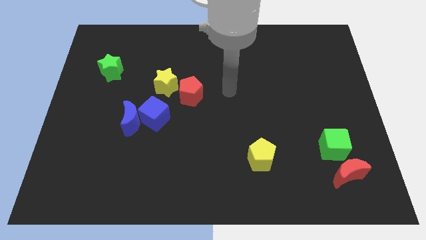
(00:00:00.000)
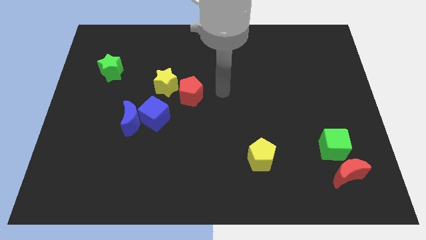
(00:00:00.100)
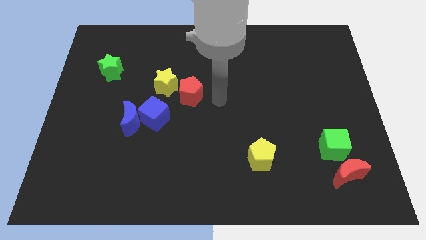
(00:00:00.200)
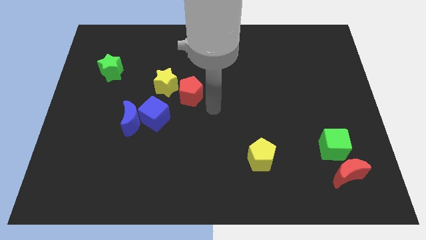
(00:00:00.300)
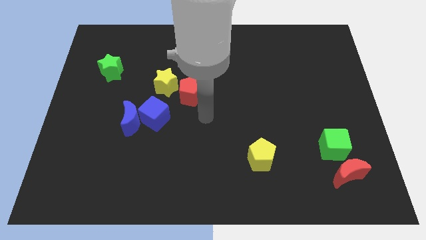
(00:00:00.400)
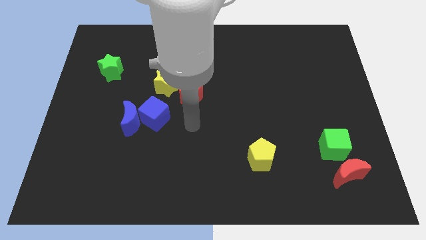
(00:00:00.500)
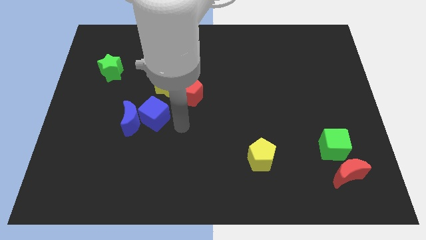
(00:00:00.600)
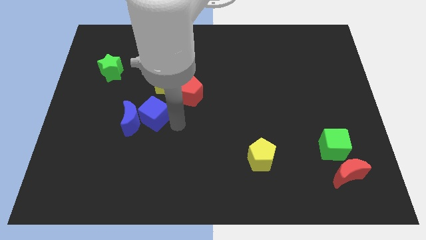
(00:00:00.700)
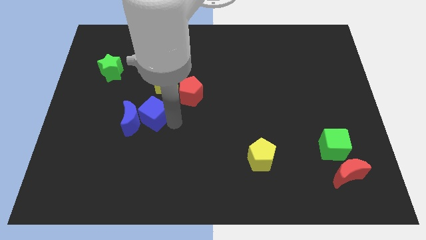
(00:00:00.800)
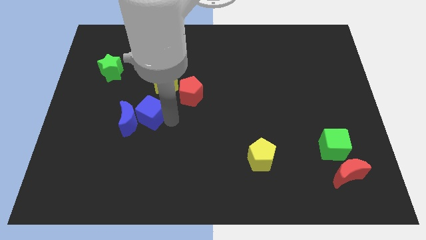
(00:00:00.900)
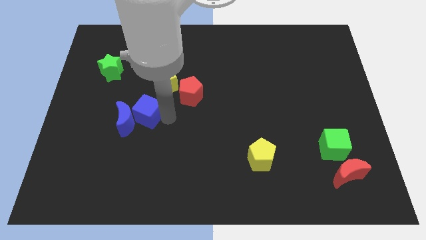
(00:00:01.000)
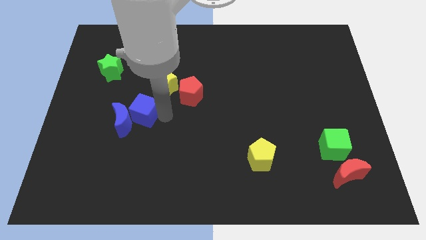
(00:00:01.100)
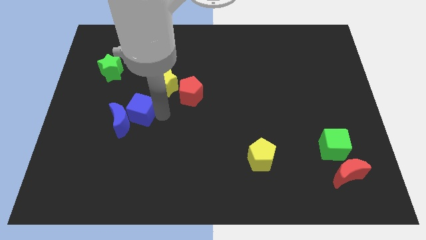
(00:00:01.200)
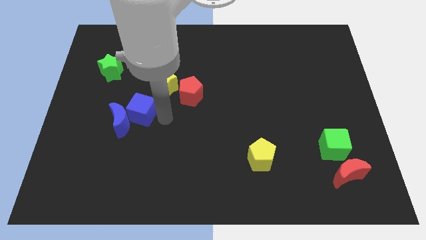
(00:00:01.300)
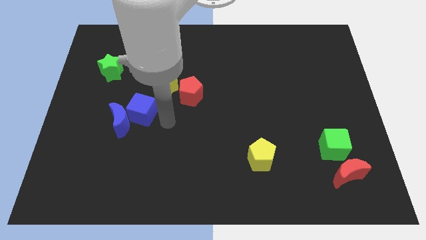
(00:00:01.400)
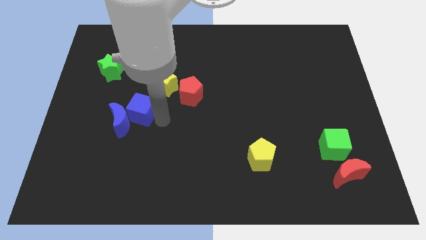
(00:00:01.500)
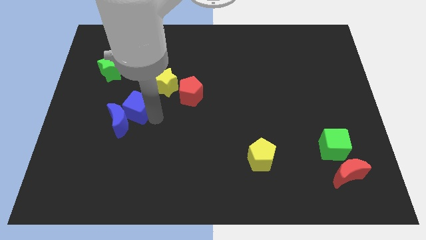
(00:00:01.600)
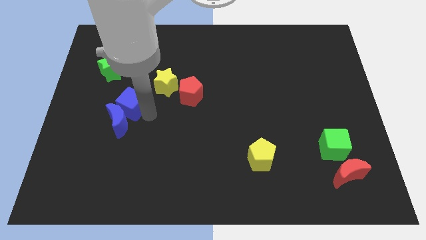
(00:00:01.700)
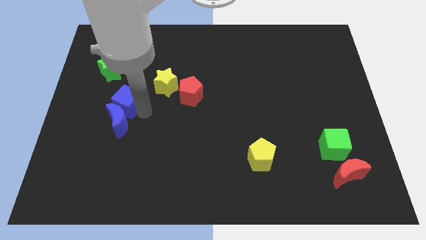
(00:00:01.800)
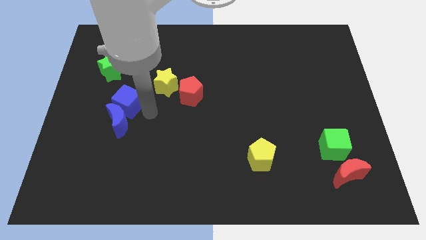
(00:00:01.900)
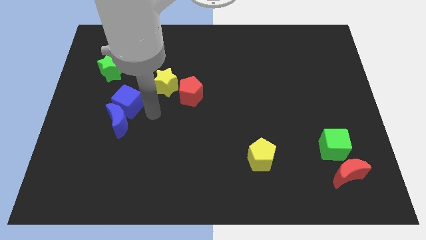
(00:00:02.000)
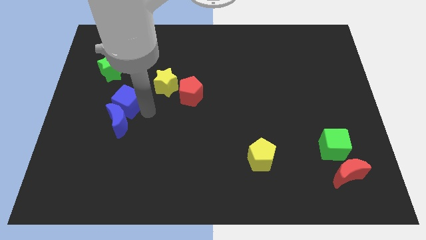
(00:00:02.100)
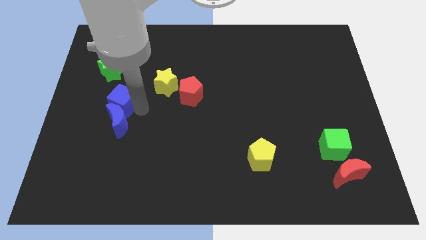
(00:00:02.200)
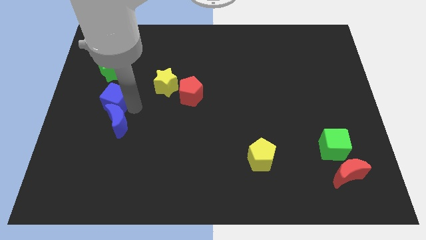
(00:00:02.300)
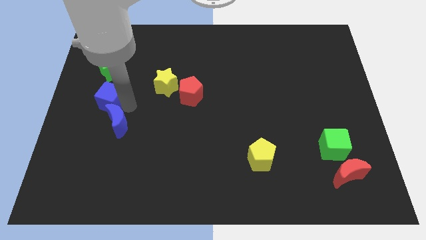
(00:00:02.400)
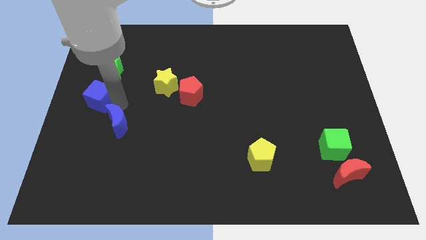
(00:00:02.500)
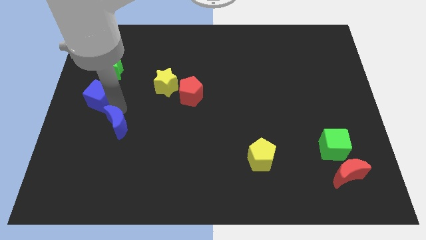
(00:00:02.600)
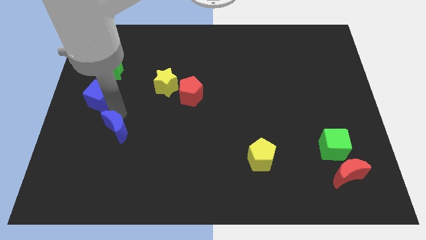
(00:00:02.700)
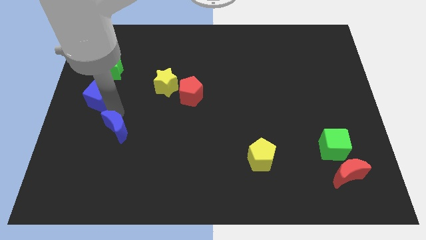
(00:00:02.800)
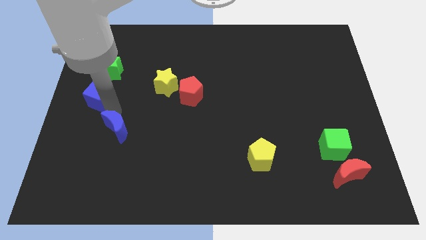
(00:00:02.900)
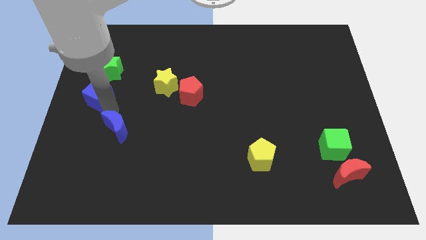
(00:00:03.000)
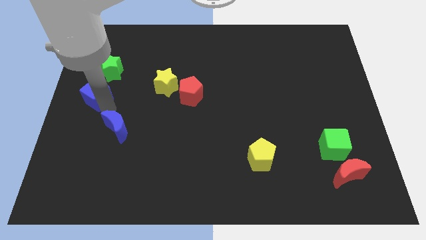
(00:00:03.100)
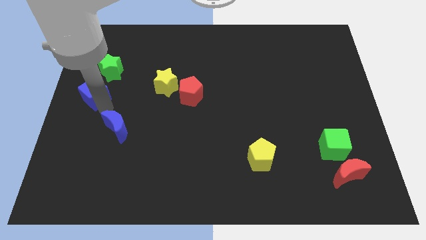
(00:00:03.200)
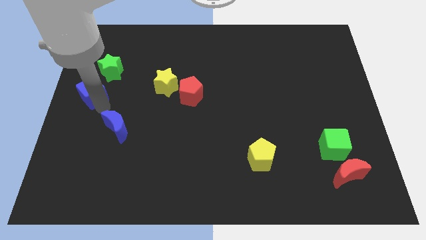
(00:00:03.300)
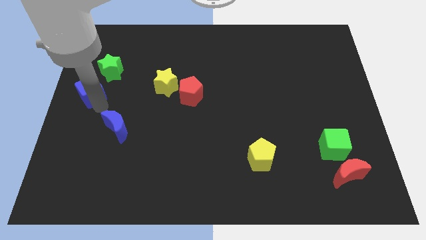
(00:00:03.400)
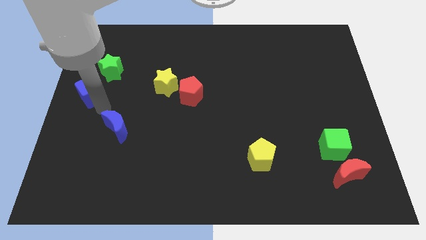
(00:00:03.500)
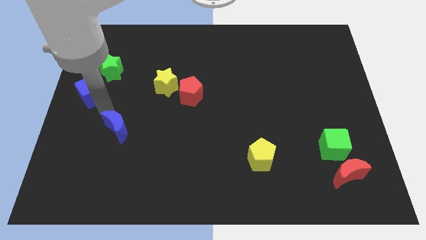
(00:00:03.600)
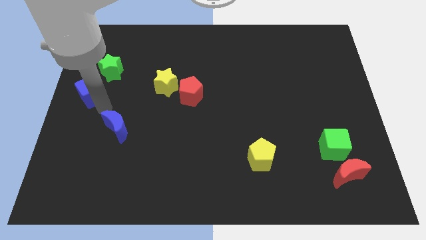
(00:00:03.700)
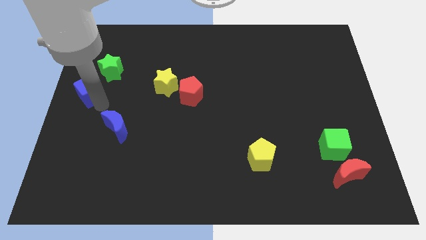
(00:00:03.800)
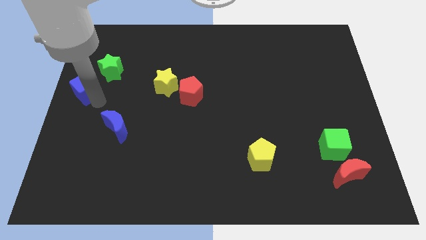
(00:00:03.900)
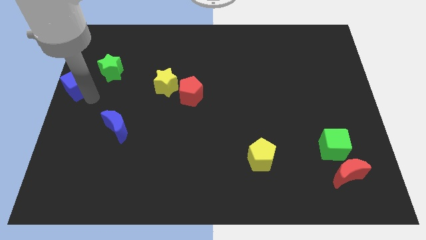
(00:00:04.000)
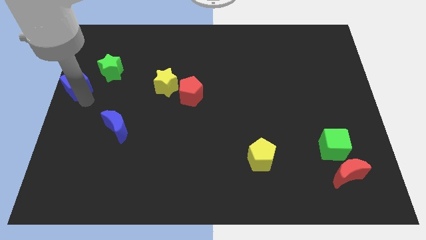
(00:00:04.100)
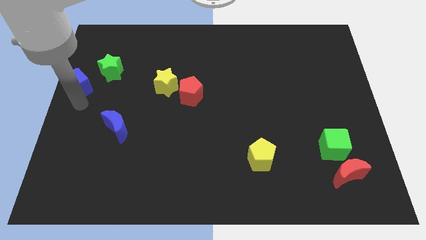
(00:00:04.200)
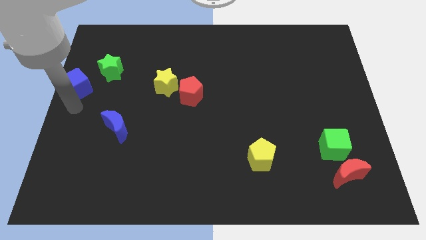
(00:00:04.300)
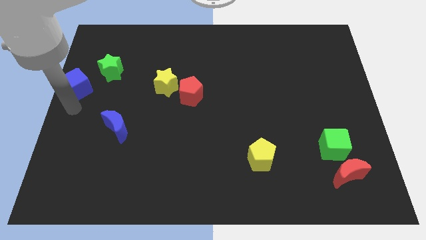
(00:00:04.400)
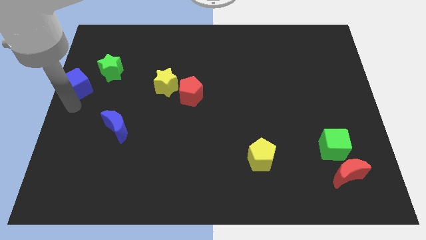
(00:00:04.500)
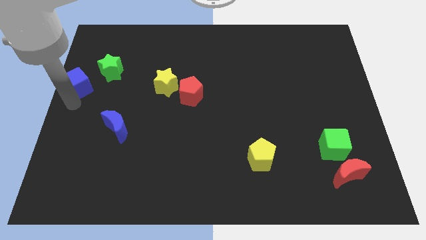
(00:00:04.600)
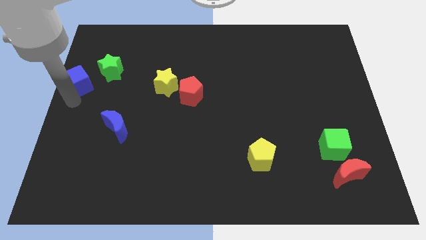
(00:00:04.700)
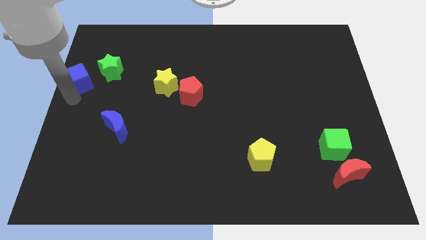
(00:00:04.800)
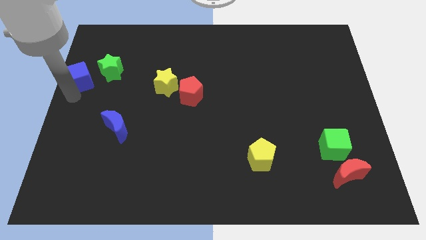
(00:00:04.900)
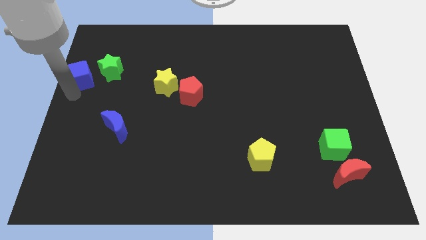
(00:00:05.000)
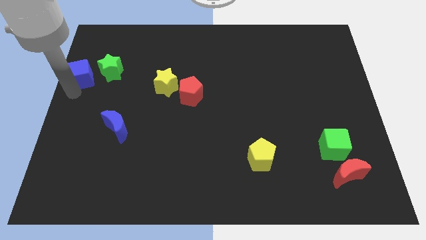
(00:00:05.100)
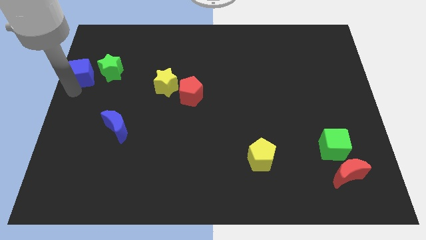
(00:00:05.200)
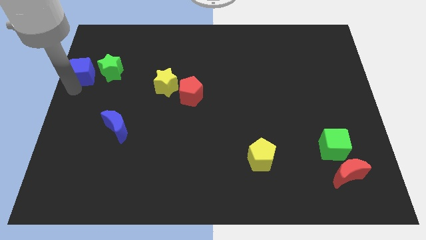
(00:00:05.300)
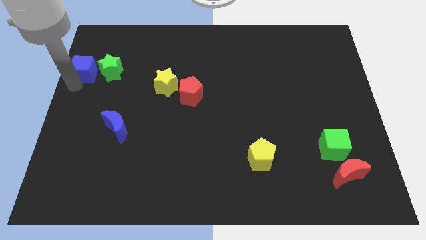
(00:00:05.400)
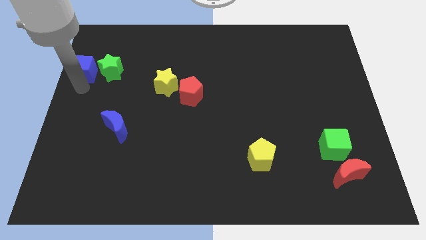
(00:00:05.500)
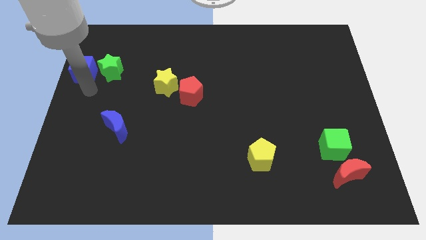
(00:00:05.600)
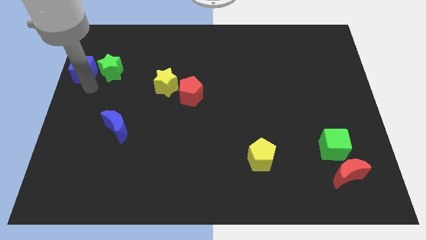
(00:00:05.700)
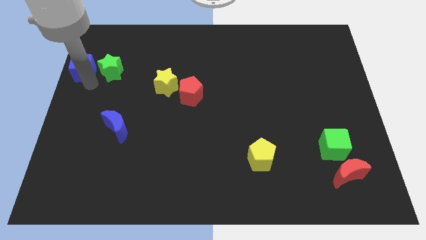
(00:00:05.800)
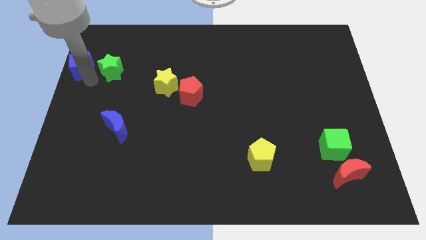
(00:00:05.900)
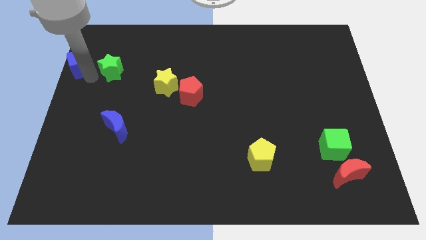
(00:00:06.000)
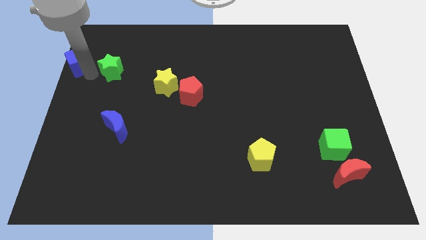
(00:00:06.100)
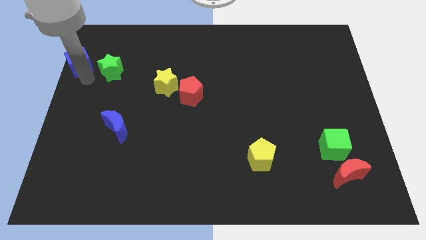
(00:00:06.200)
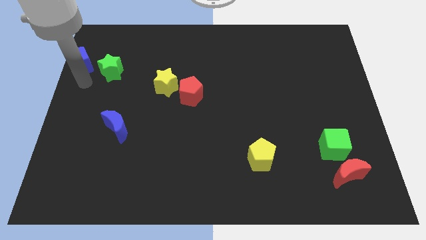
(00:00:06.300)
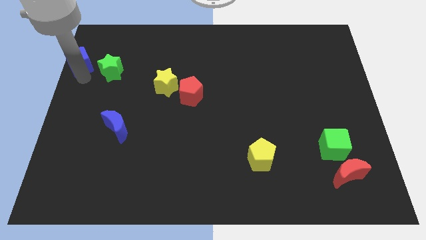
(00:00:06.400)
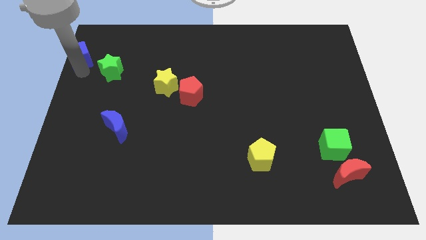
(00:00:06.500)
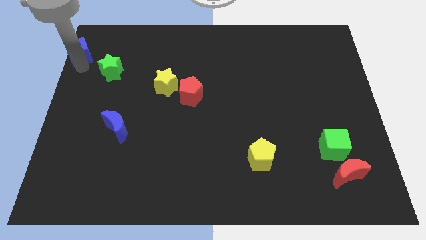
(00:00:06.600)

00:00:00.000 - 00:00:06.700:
slide the blue cube to the upper left corner
